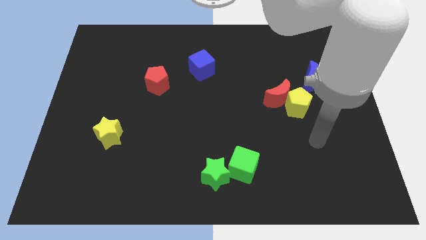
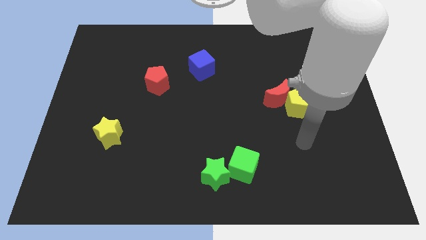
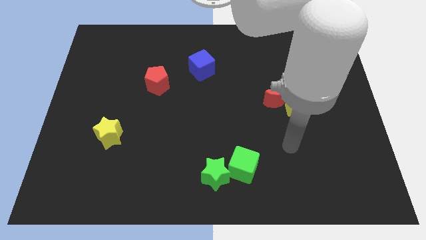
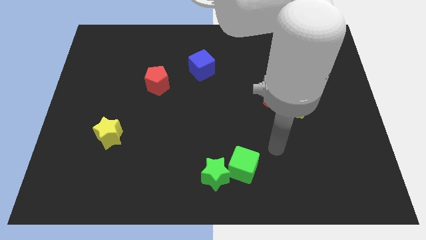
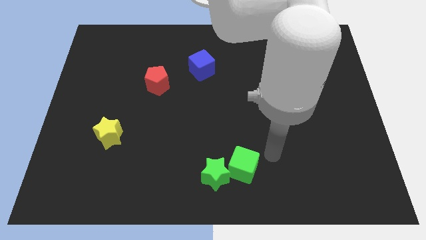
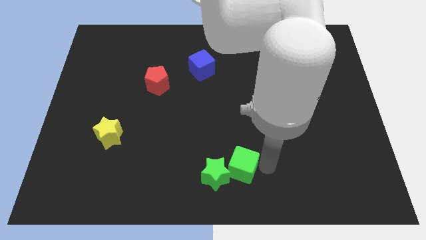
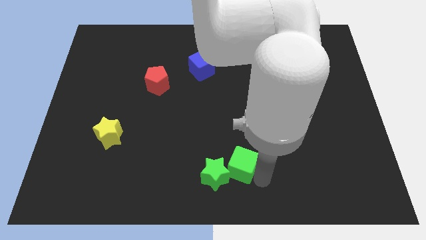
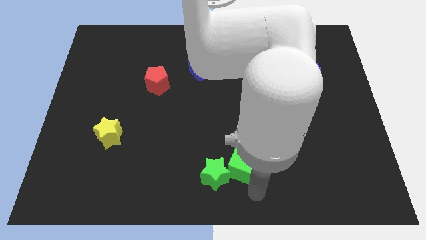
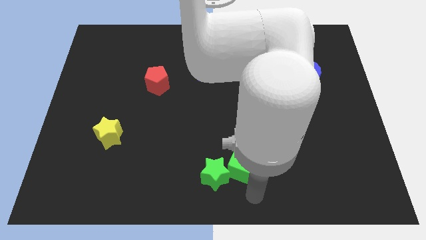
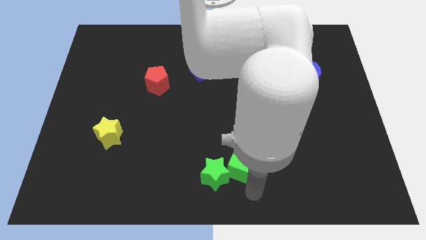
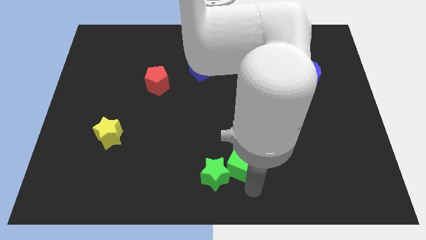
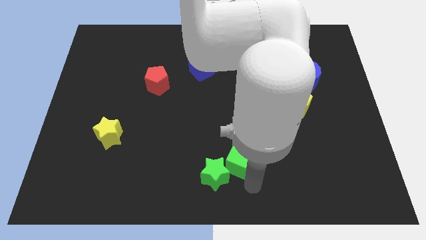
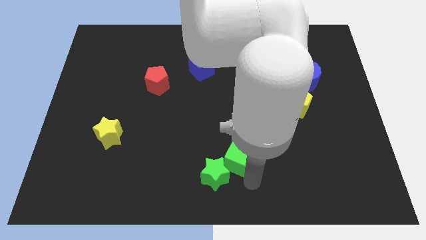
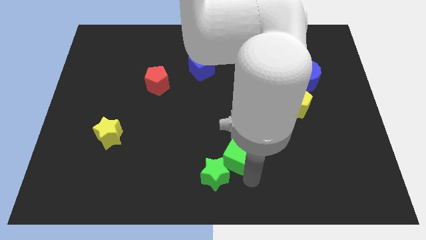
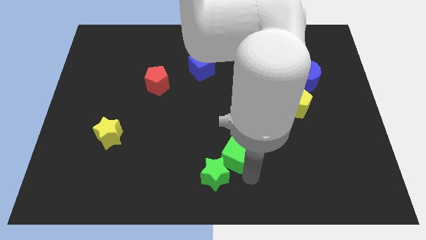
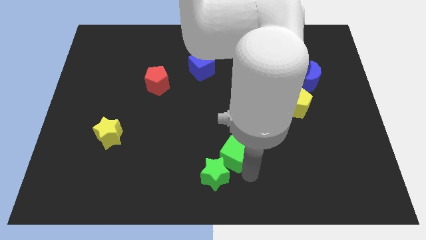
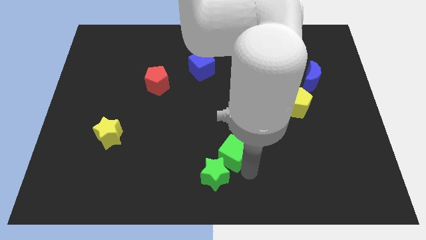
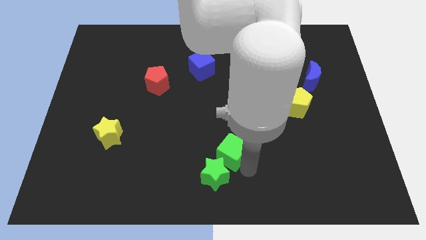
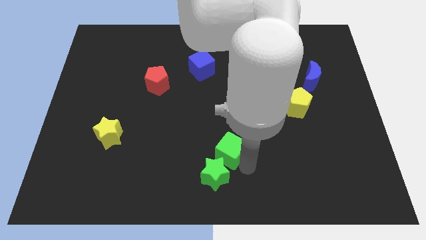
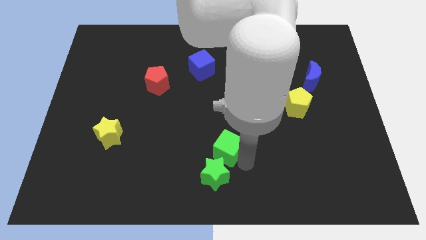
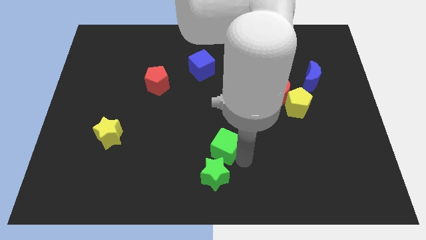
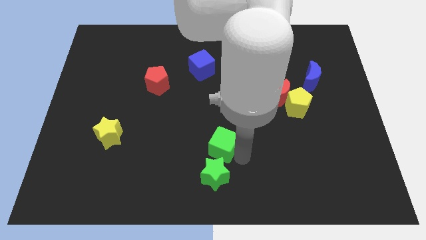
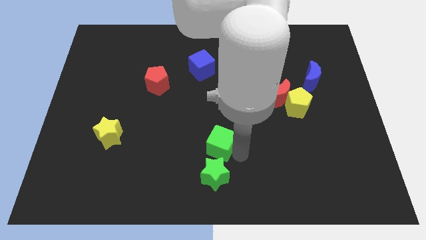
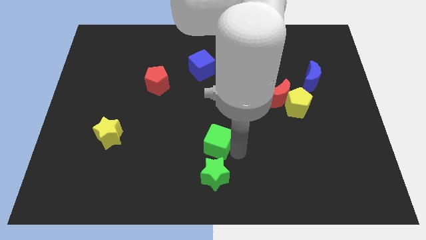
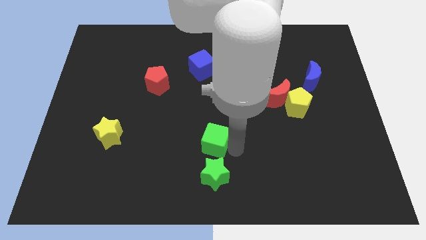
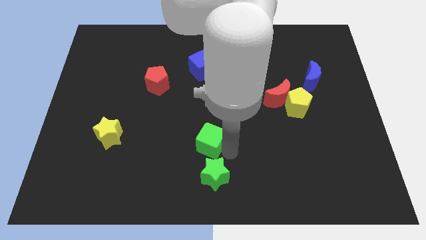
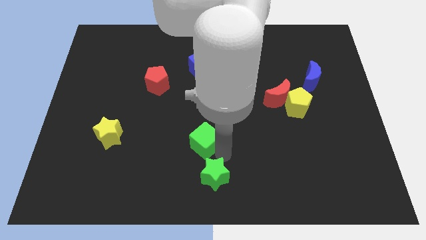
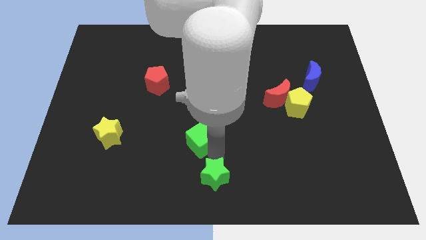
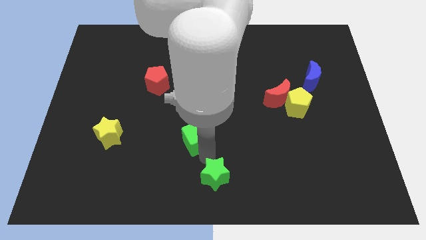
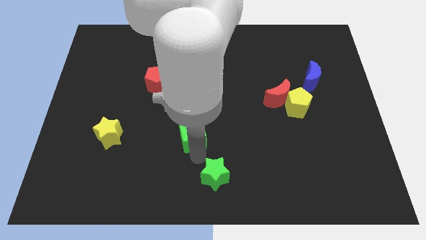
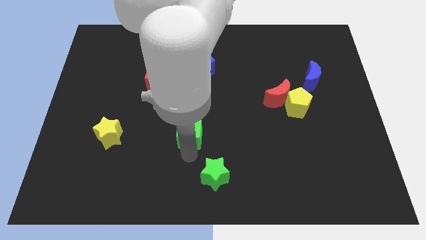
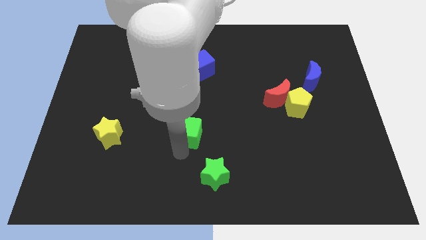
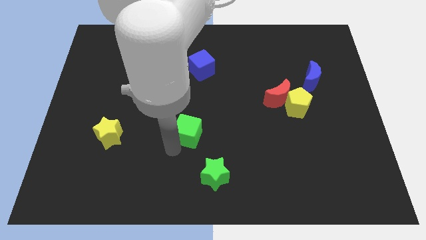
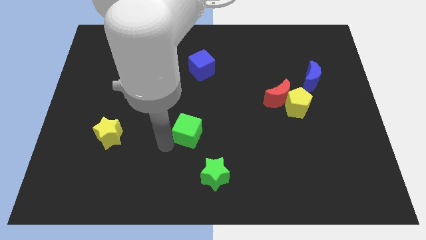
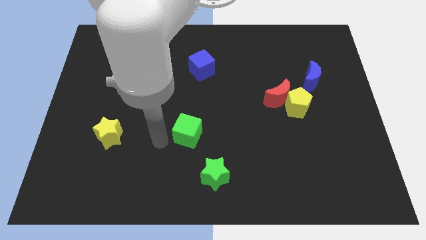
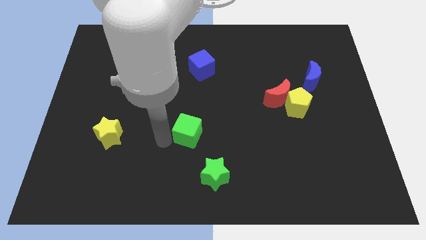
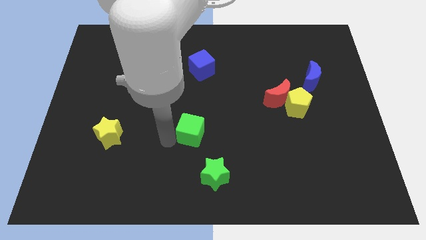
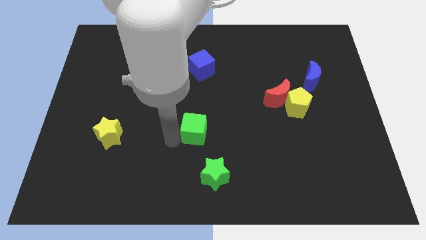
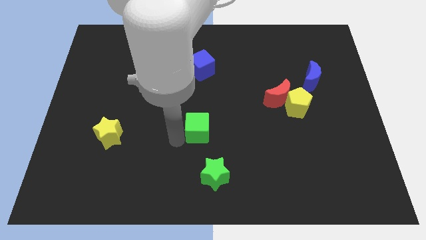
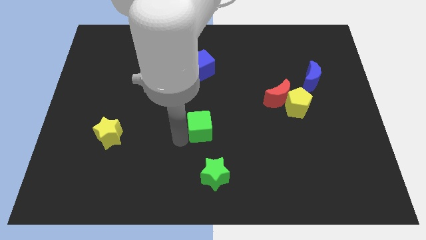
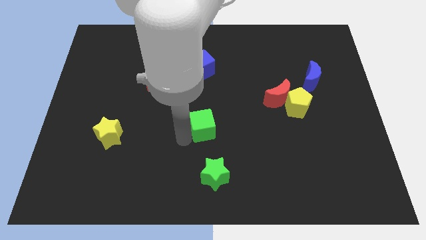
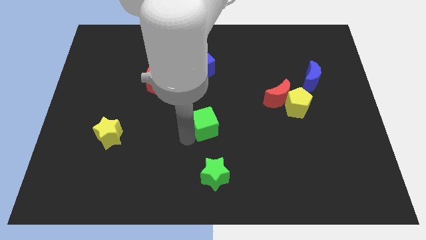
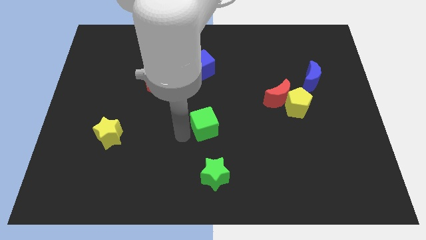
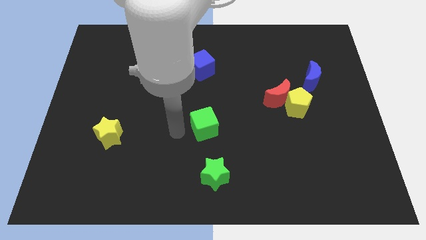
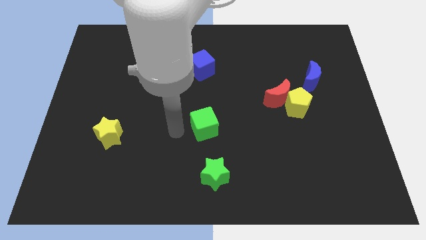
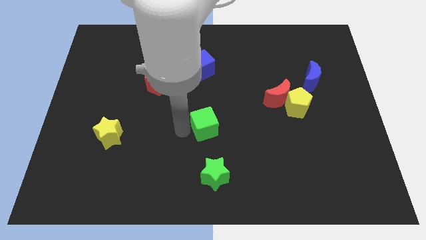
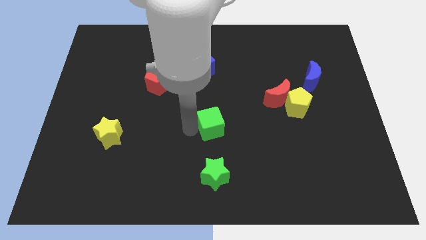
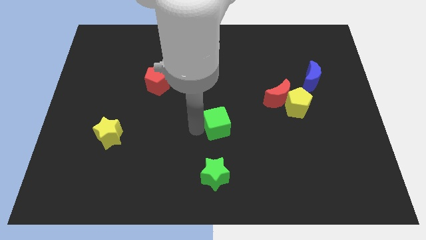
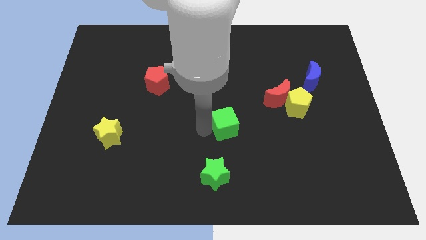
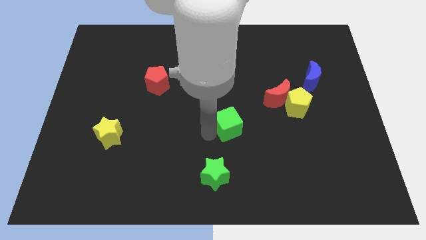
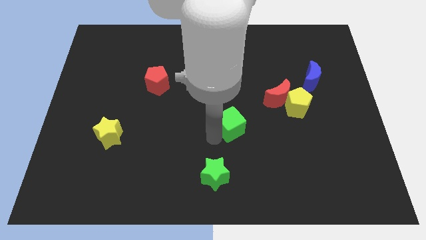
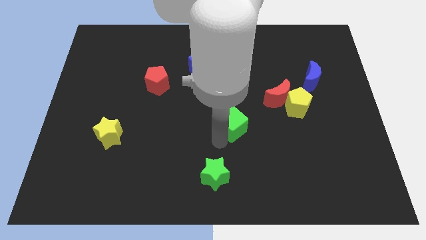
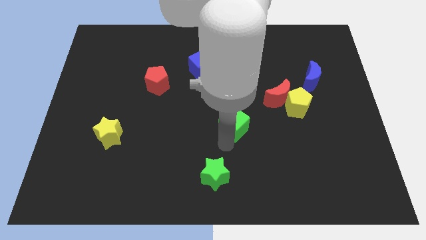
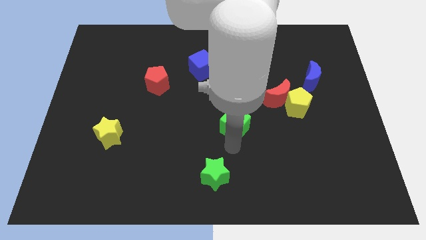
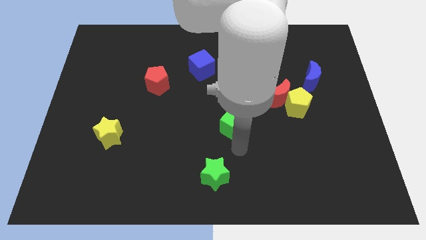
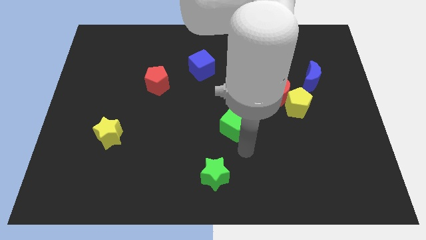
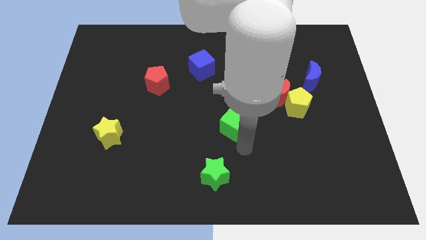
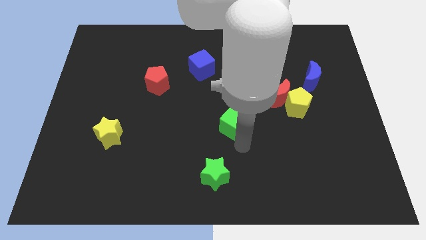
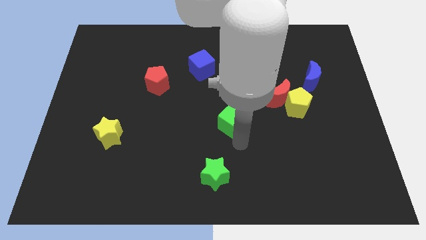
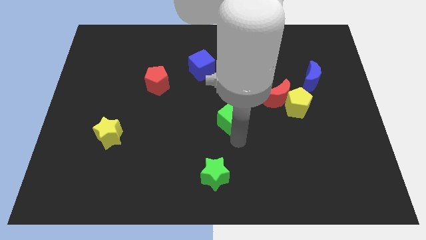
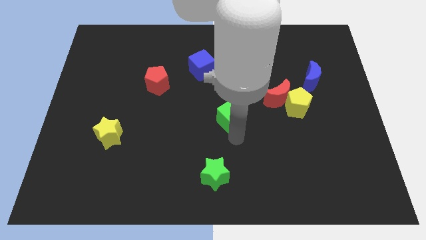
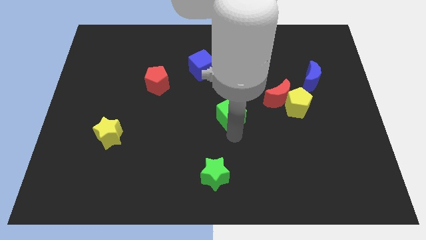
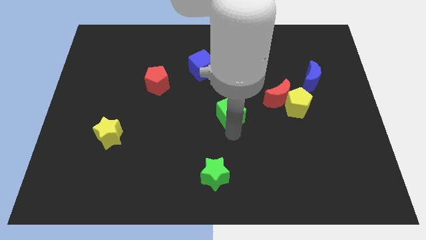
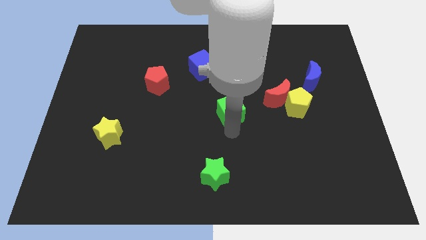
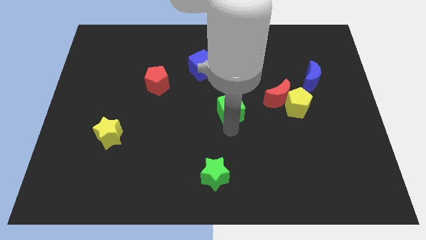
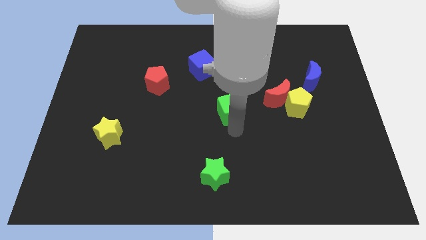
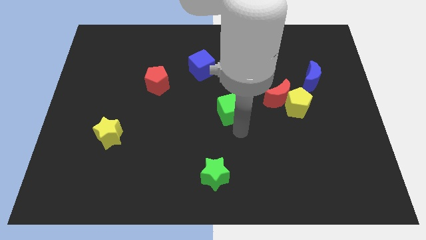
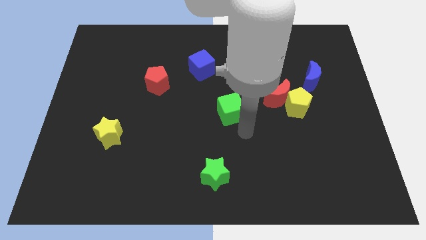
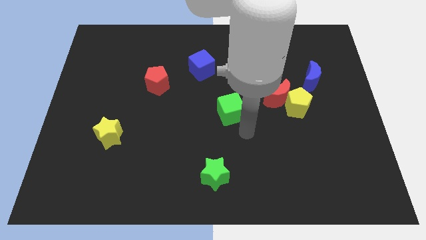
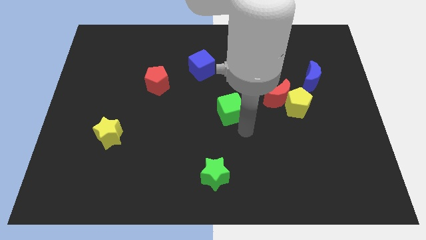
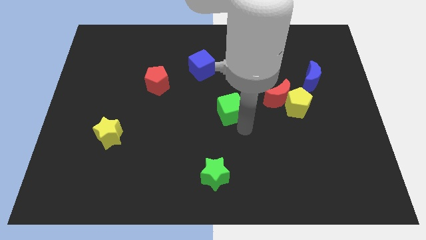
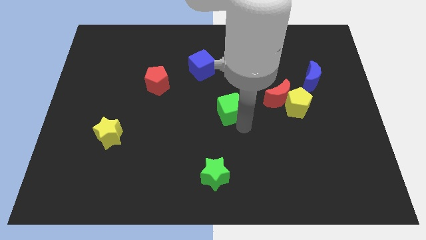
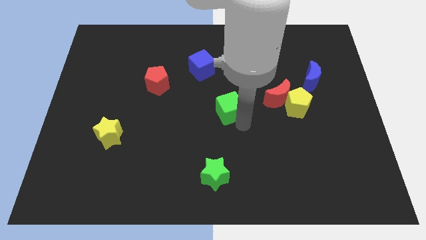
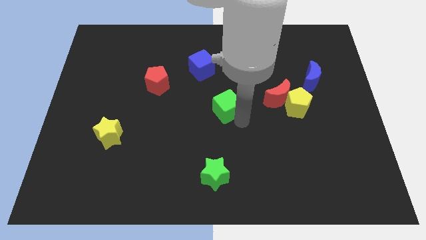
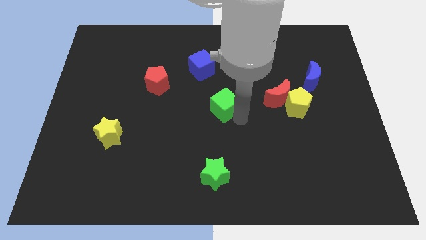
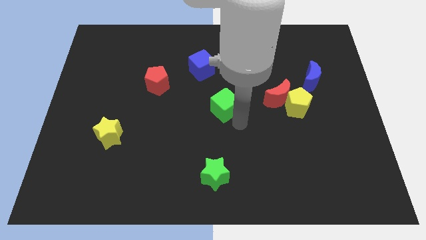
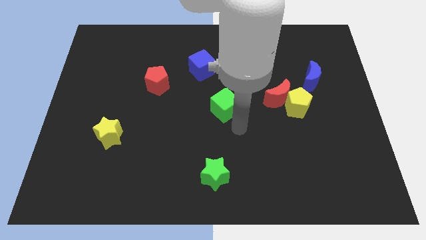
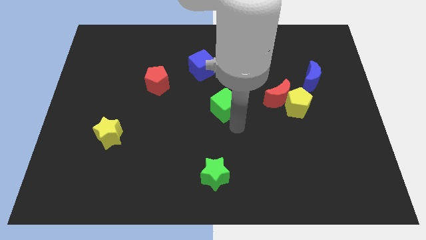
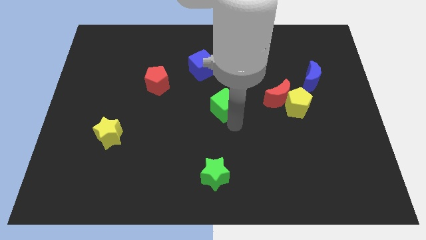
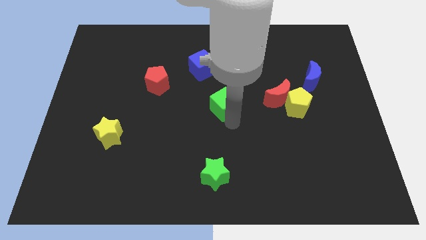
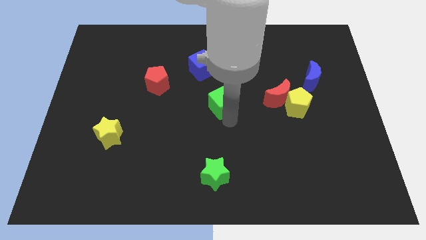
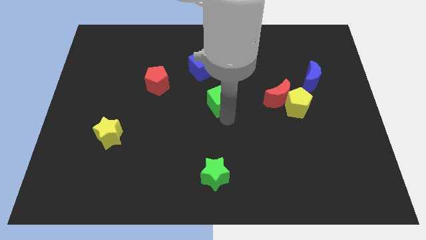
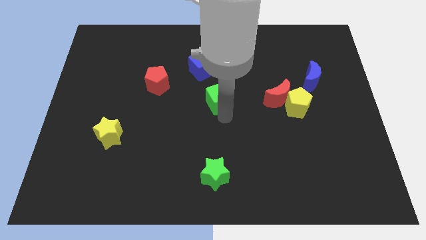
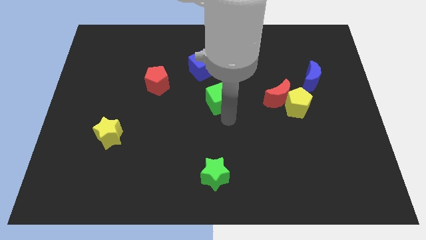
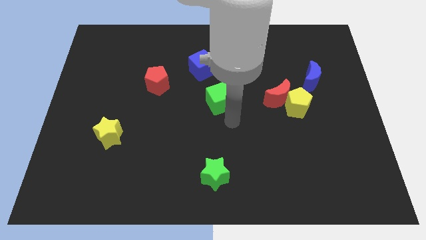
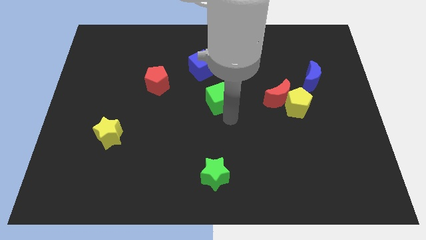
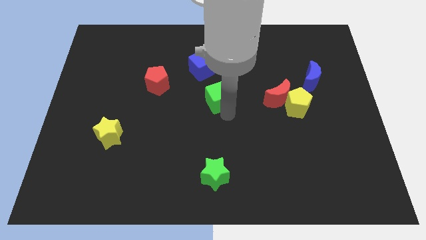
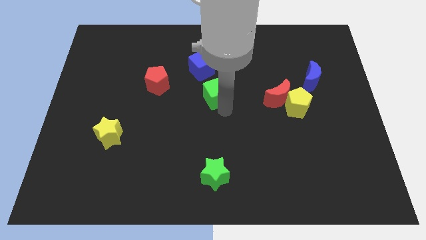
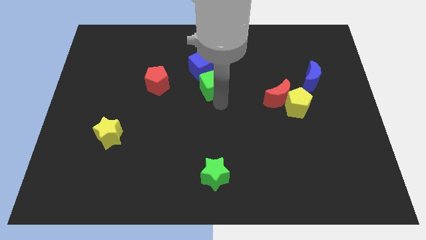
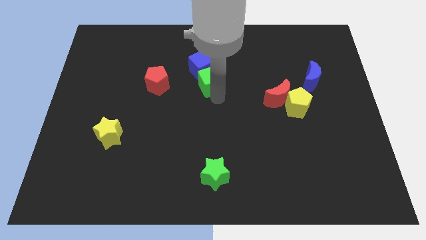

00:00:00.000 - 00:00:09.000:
push the green cube next to the blue cube
